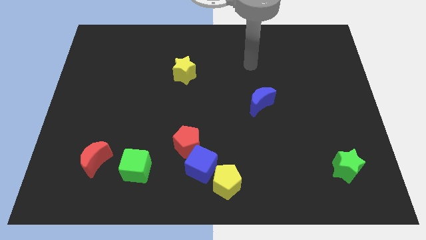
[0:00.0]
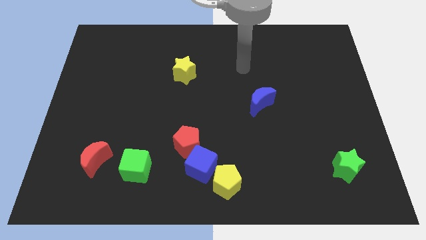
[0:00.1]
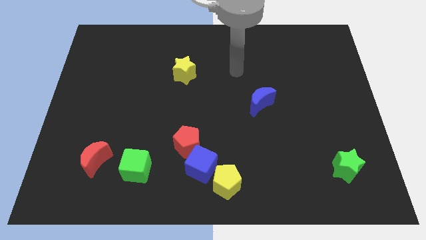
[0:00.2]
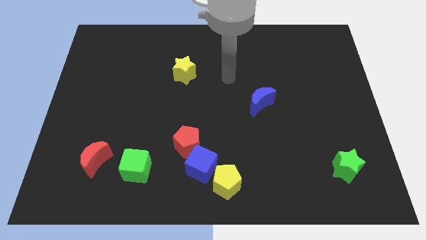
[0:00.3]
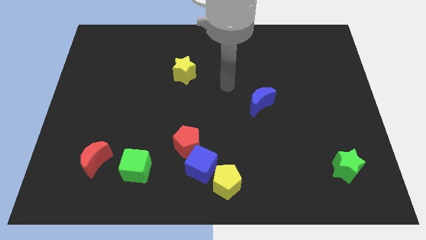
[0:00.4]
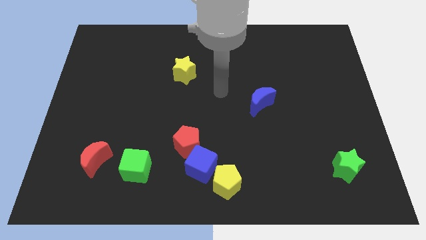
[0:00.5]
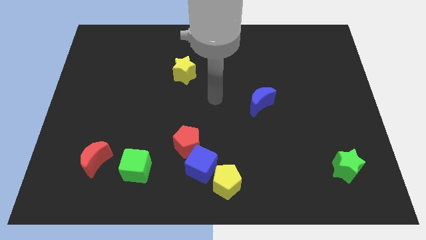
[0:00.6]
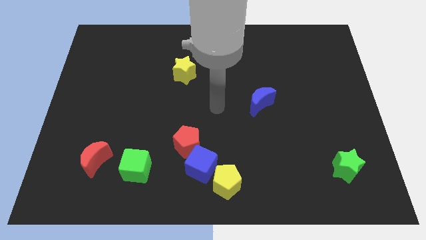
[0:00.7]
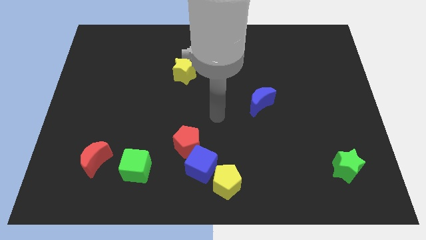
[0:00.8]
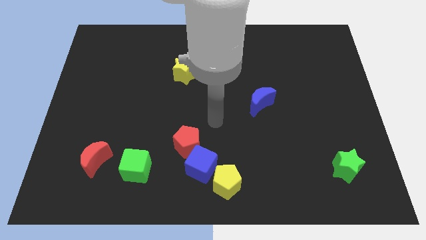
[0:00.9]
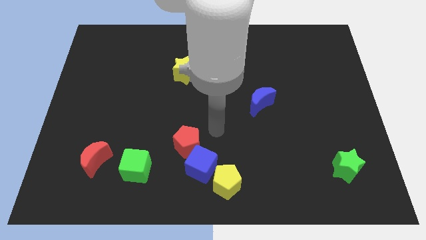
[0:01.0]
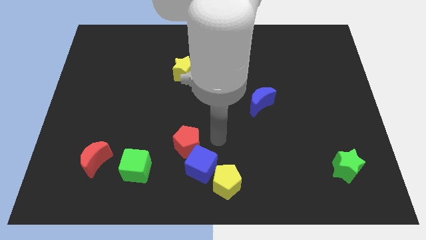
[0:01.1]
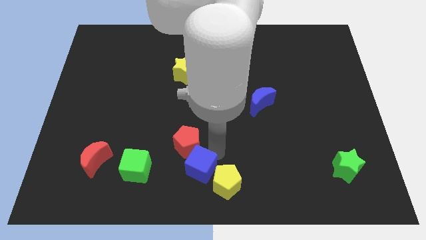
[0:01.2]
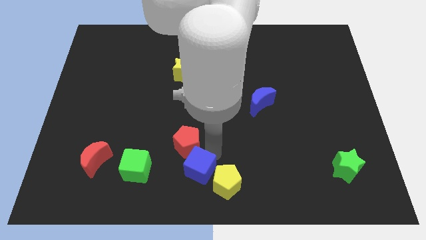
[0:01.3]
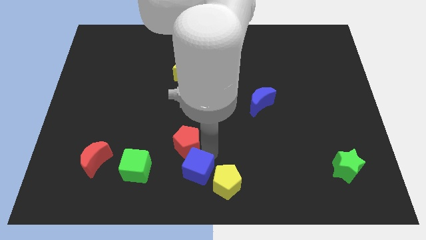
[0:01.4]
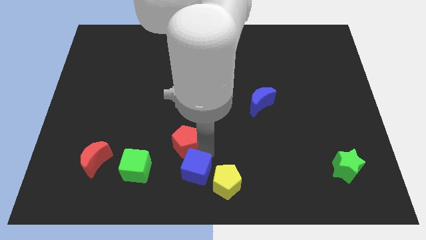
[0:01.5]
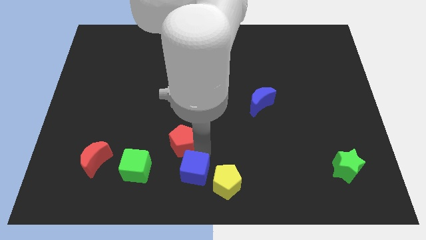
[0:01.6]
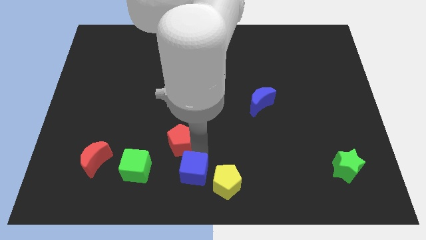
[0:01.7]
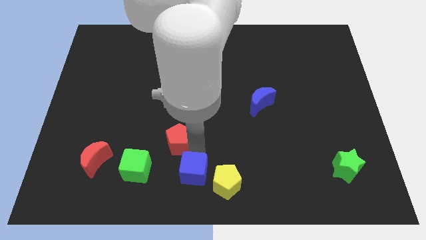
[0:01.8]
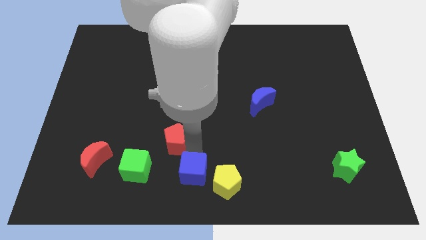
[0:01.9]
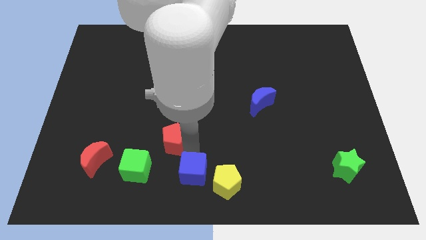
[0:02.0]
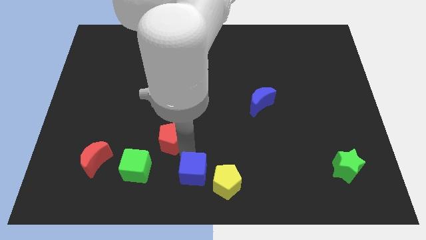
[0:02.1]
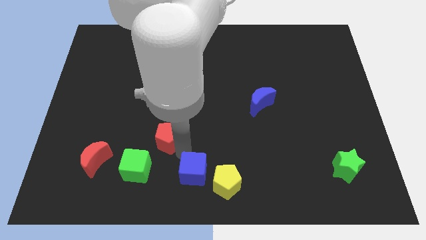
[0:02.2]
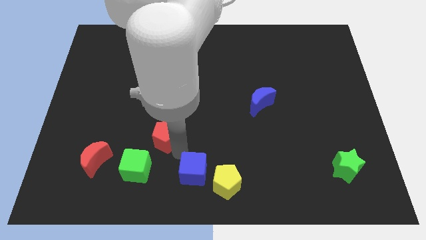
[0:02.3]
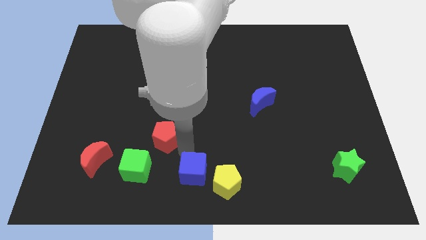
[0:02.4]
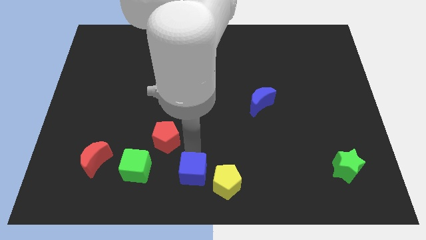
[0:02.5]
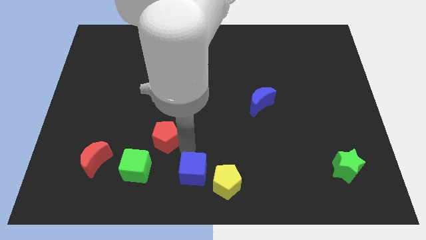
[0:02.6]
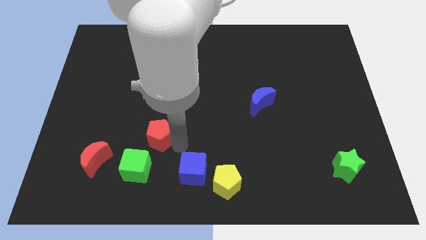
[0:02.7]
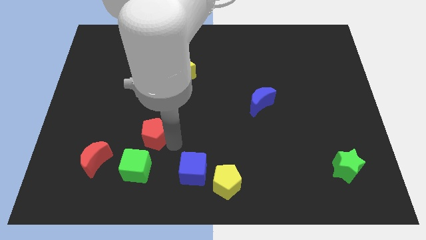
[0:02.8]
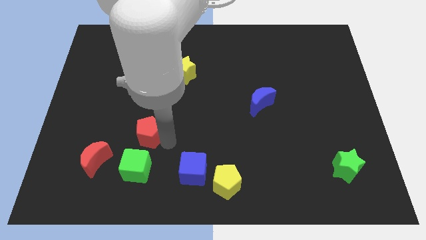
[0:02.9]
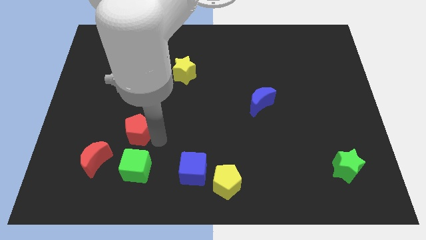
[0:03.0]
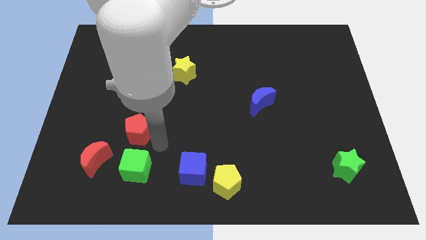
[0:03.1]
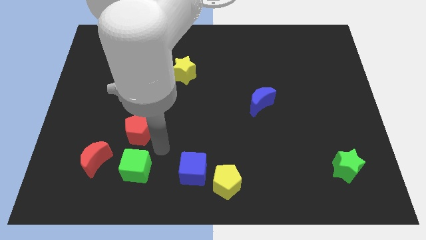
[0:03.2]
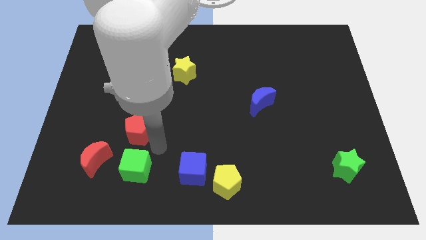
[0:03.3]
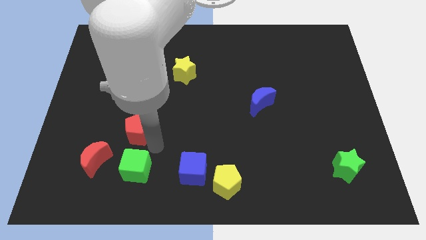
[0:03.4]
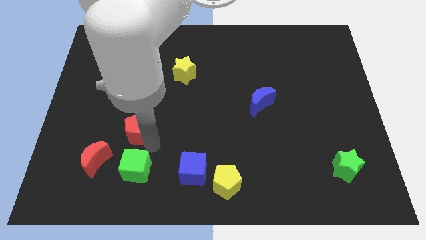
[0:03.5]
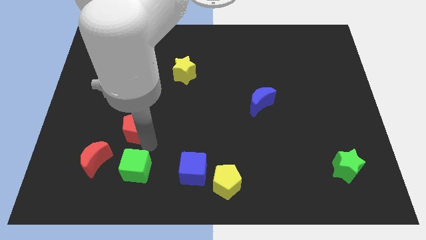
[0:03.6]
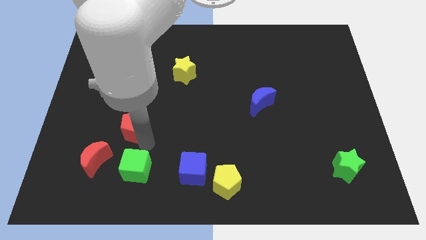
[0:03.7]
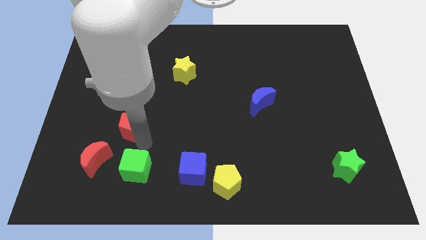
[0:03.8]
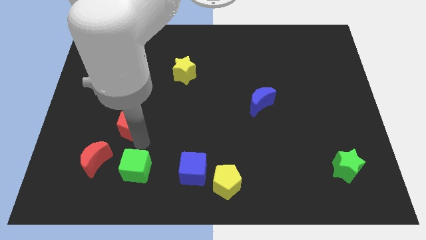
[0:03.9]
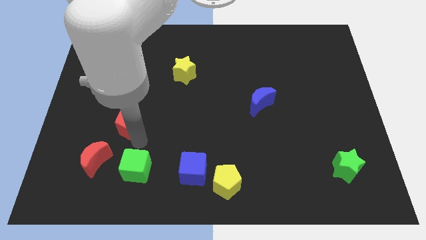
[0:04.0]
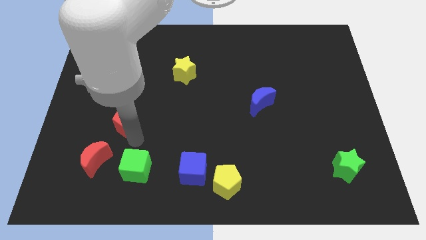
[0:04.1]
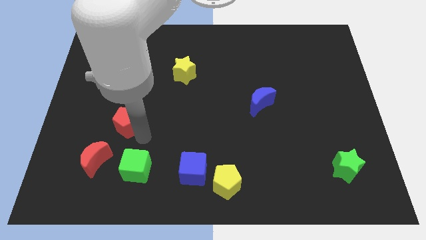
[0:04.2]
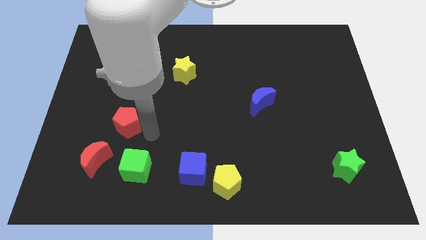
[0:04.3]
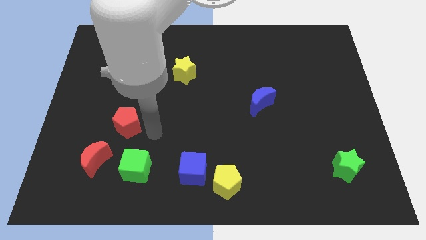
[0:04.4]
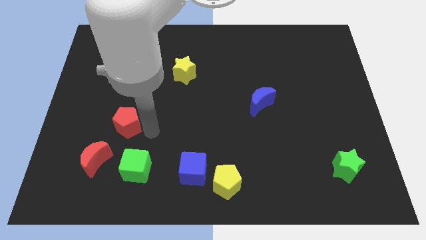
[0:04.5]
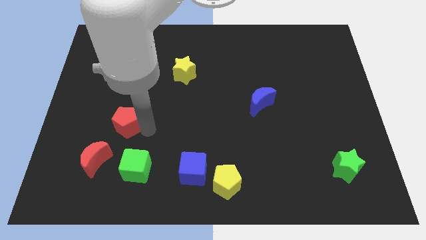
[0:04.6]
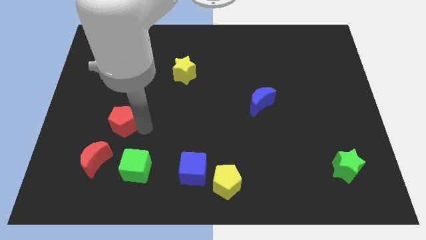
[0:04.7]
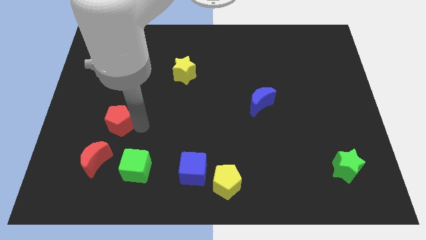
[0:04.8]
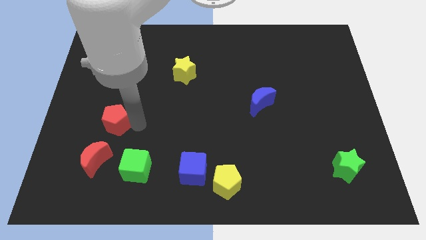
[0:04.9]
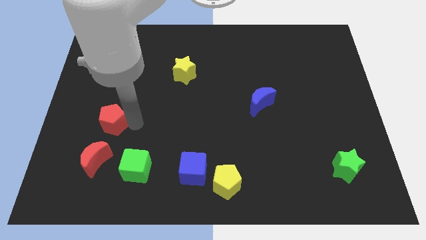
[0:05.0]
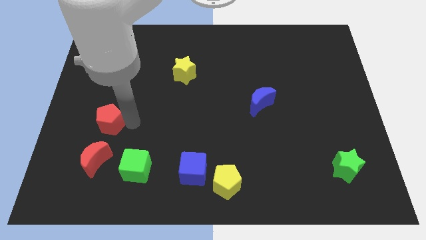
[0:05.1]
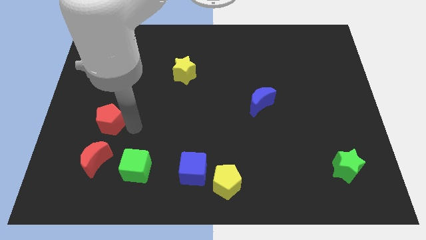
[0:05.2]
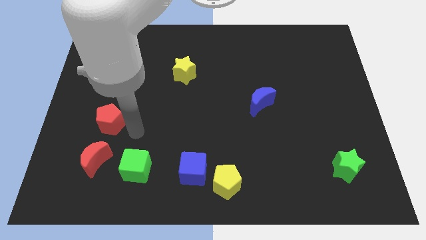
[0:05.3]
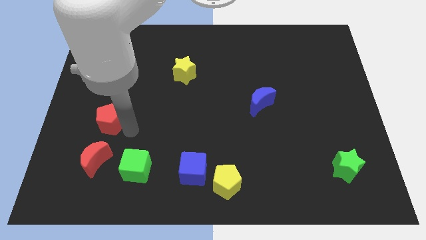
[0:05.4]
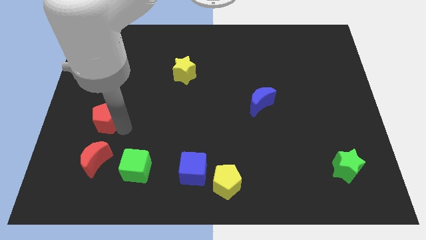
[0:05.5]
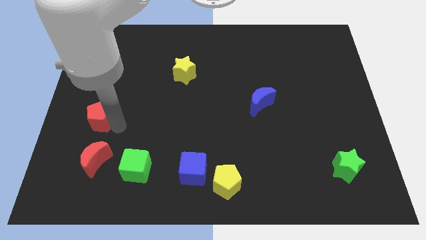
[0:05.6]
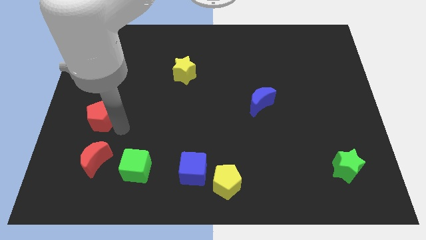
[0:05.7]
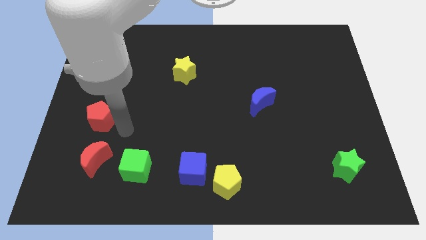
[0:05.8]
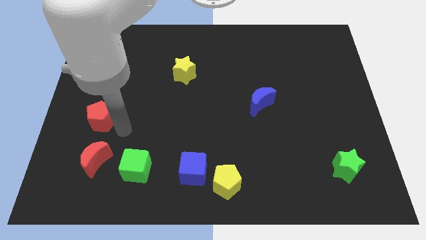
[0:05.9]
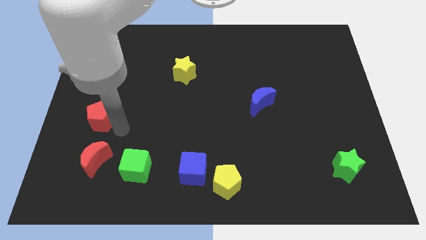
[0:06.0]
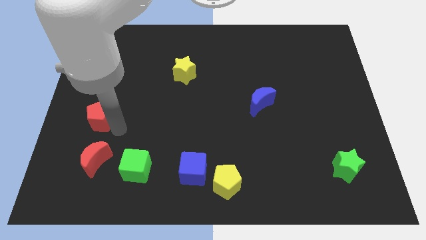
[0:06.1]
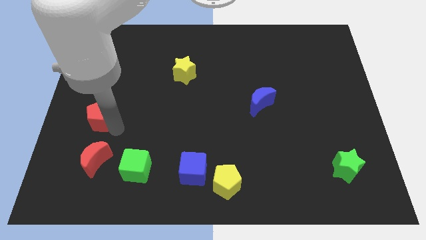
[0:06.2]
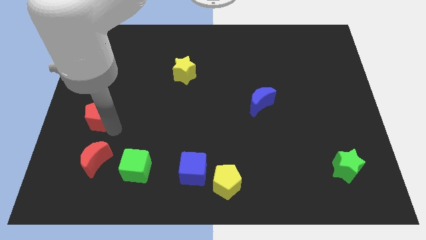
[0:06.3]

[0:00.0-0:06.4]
slide the red pentagon to the left side of the board

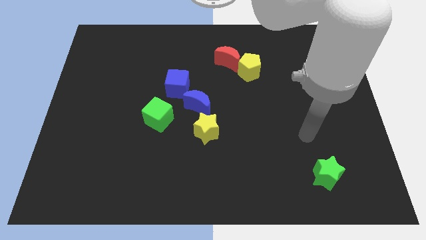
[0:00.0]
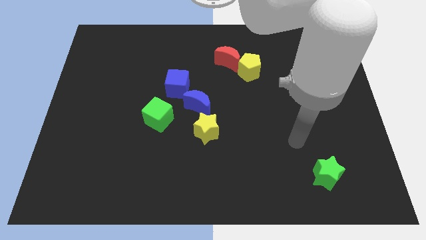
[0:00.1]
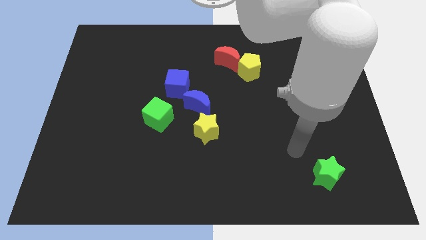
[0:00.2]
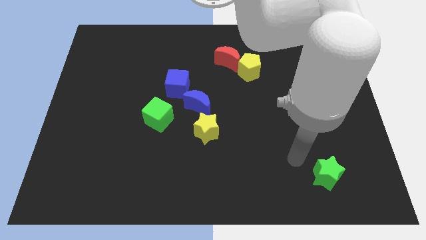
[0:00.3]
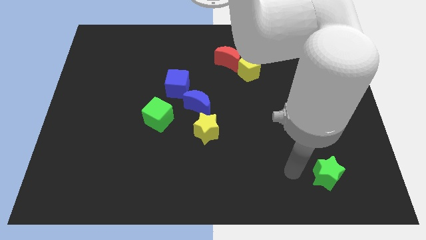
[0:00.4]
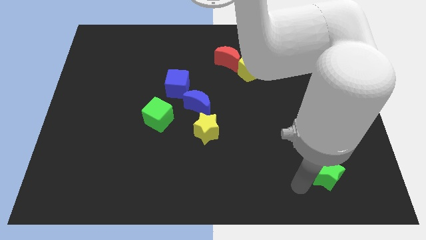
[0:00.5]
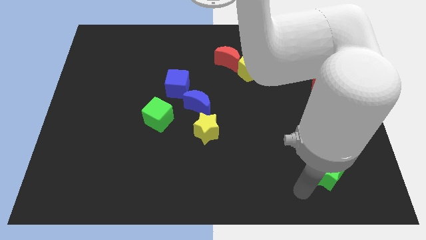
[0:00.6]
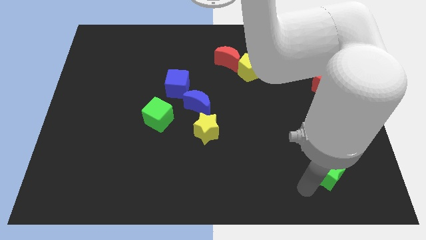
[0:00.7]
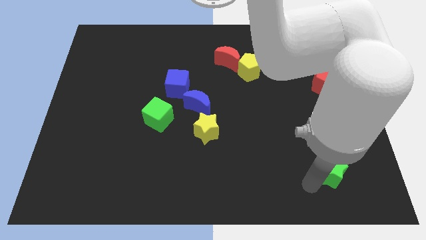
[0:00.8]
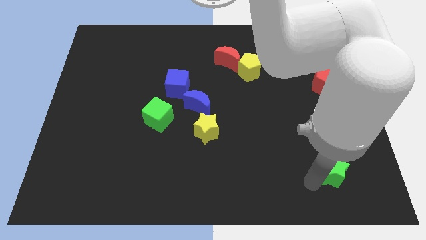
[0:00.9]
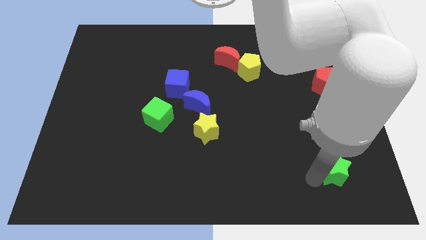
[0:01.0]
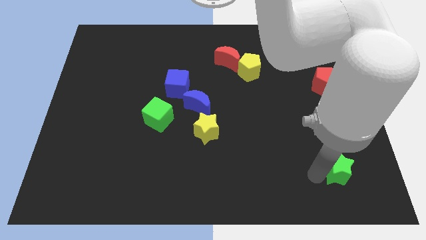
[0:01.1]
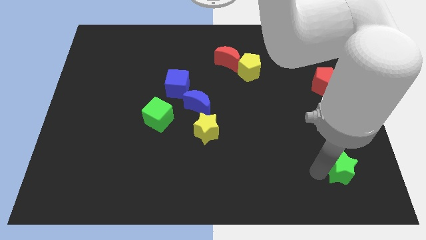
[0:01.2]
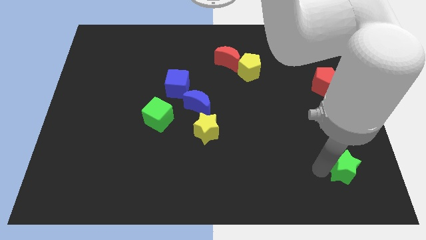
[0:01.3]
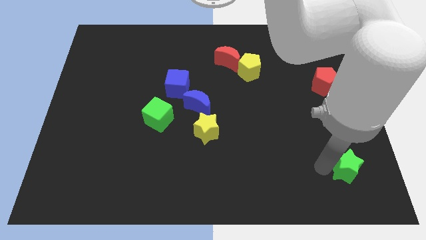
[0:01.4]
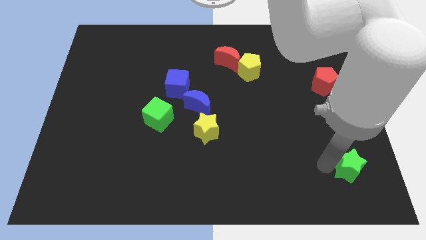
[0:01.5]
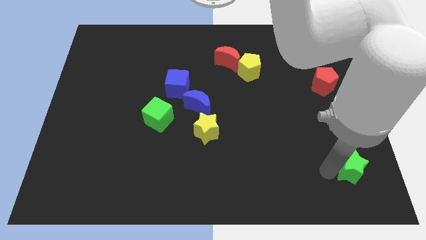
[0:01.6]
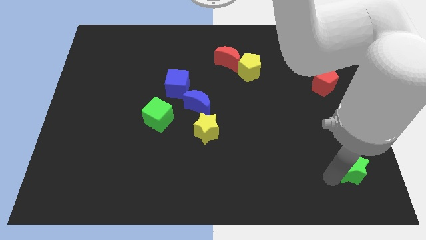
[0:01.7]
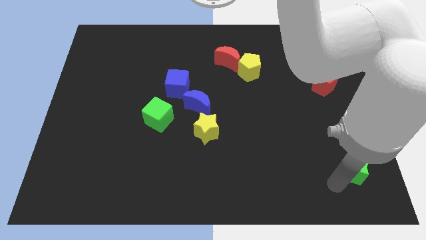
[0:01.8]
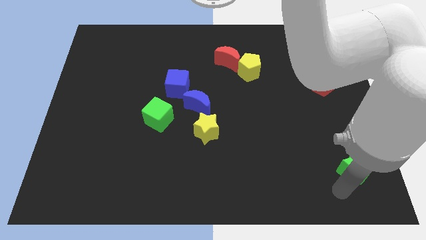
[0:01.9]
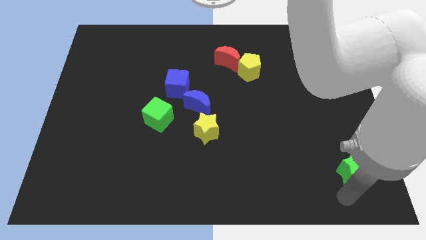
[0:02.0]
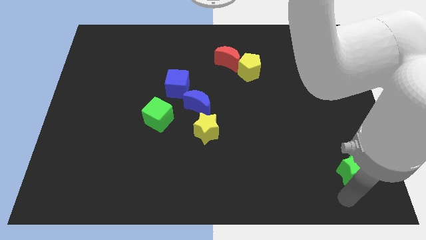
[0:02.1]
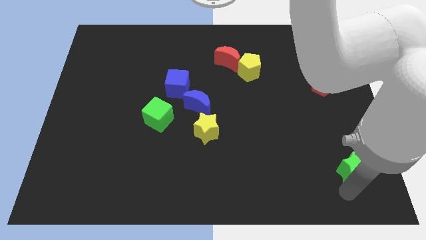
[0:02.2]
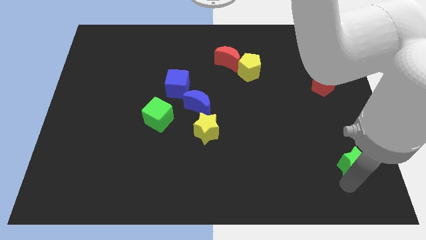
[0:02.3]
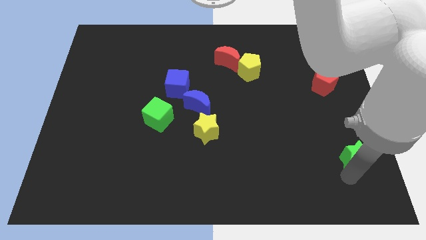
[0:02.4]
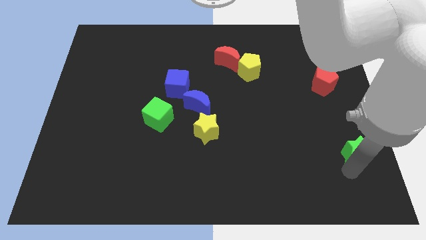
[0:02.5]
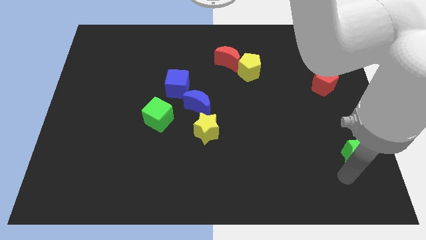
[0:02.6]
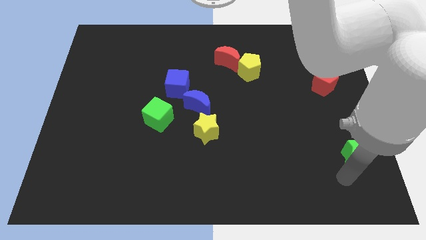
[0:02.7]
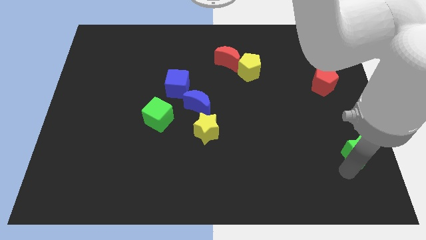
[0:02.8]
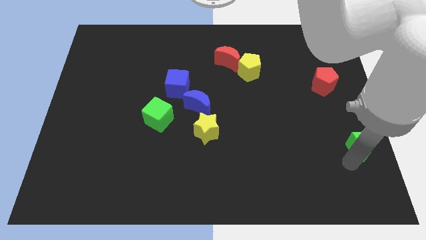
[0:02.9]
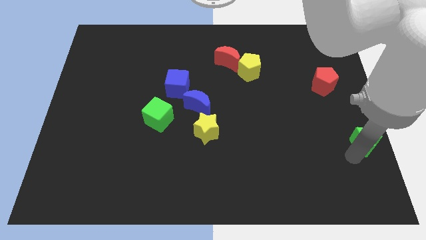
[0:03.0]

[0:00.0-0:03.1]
put the green star to the center right
